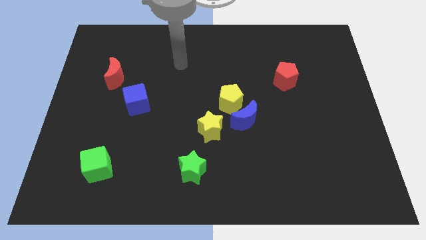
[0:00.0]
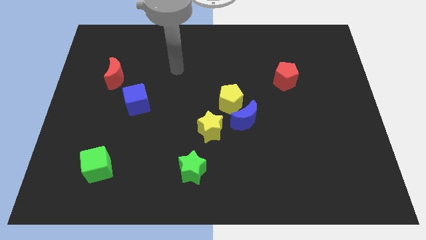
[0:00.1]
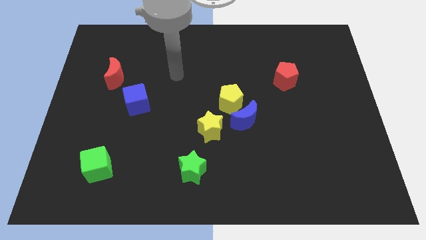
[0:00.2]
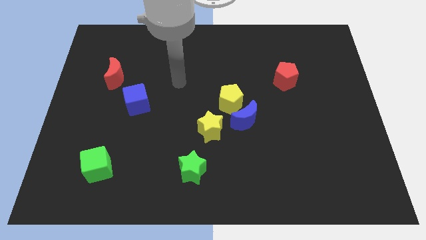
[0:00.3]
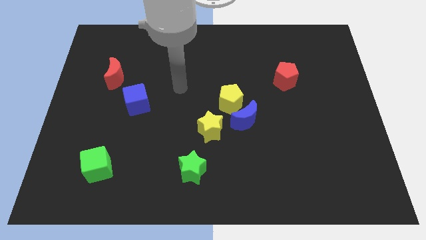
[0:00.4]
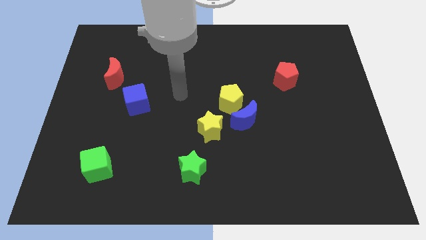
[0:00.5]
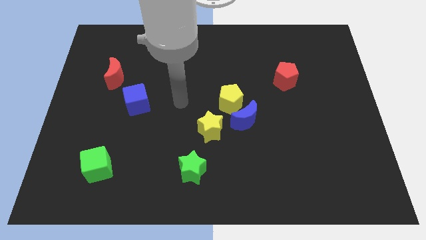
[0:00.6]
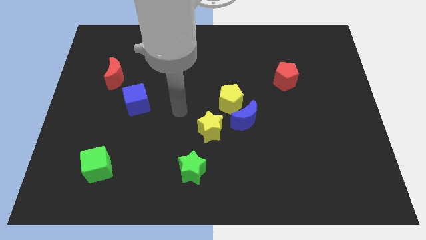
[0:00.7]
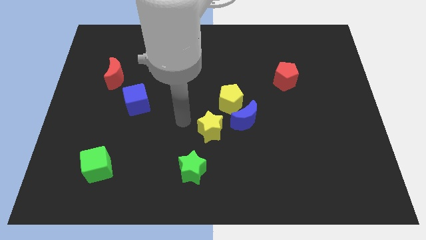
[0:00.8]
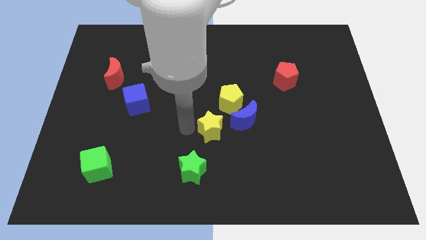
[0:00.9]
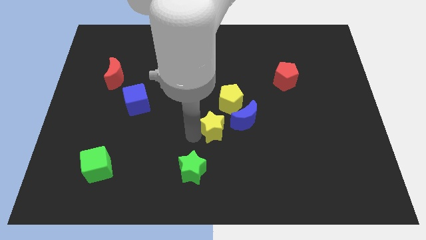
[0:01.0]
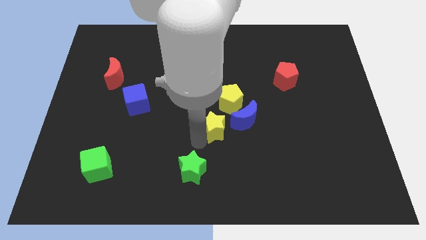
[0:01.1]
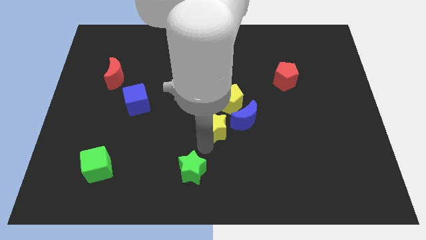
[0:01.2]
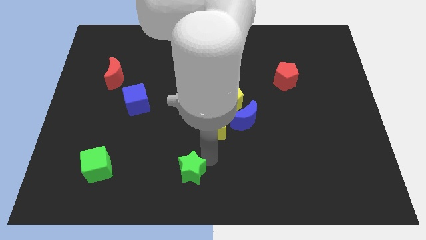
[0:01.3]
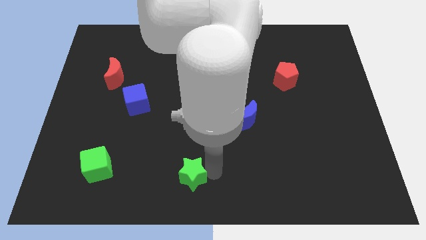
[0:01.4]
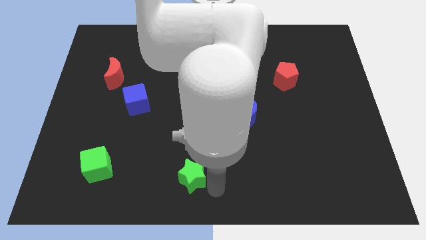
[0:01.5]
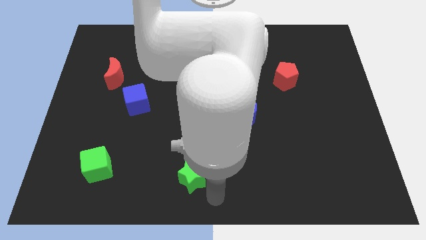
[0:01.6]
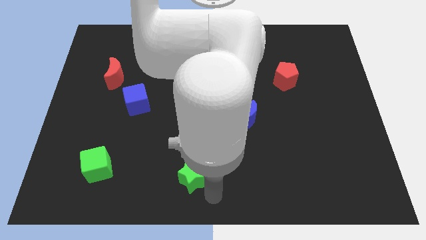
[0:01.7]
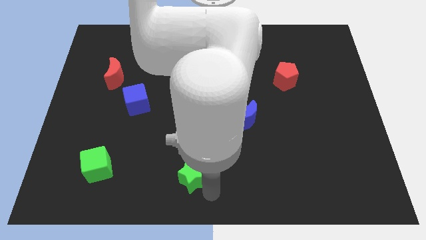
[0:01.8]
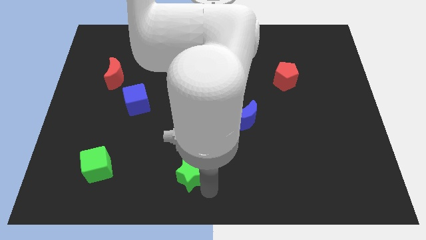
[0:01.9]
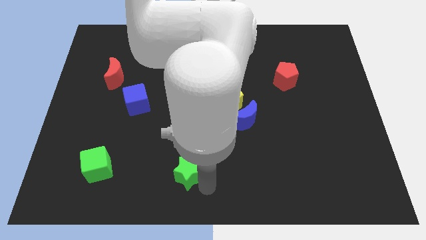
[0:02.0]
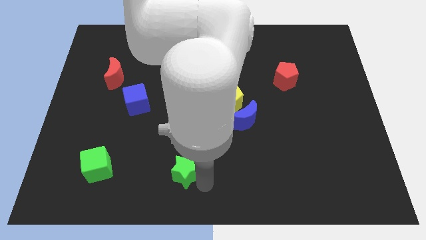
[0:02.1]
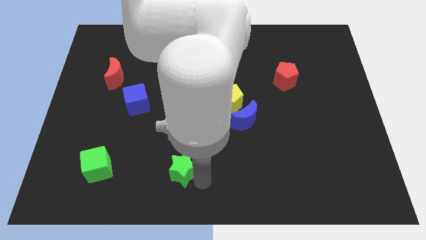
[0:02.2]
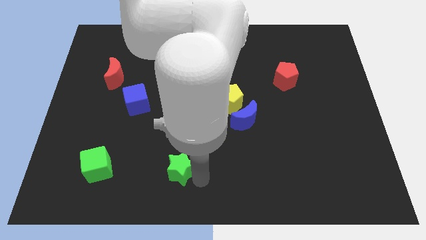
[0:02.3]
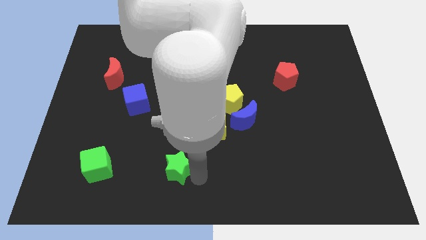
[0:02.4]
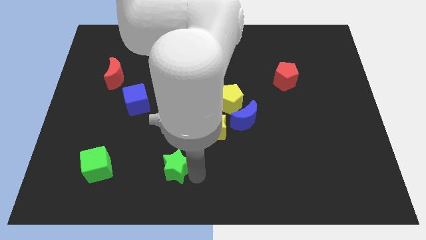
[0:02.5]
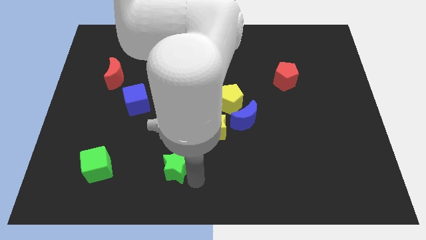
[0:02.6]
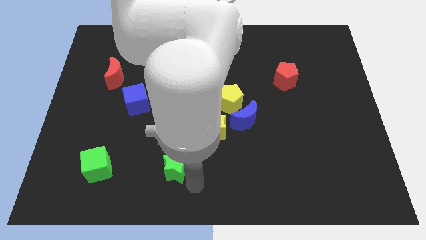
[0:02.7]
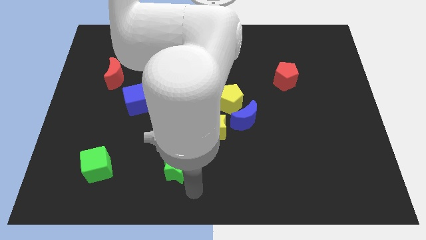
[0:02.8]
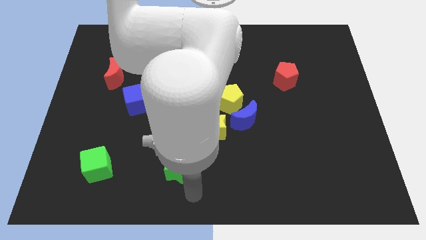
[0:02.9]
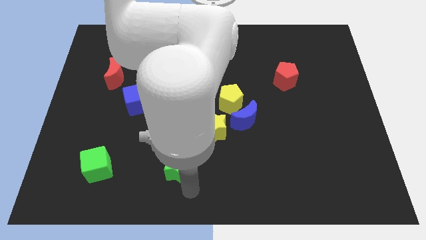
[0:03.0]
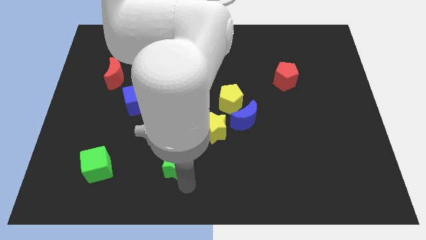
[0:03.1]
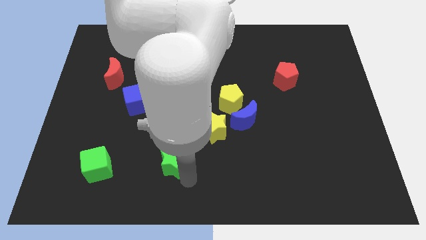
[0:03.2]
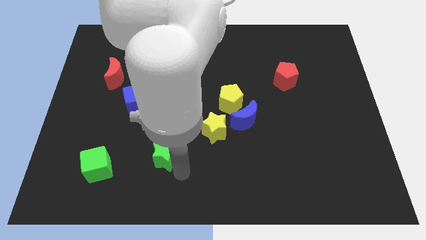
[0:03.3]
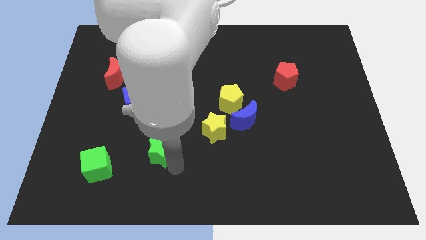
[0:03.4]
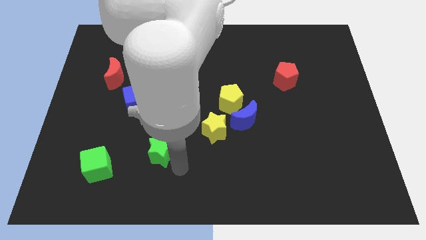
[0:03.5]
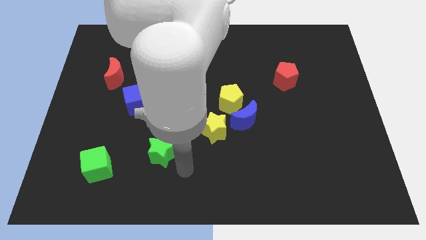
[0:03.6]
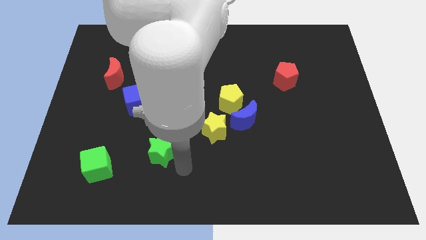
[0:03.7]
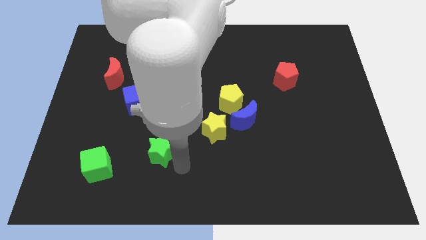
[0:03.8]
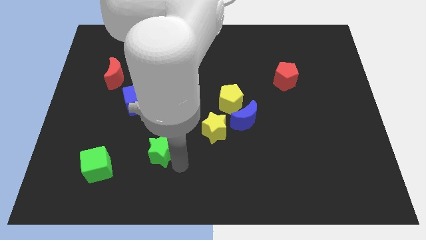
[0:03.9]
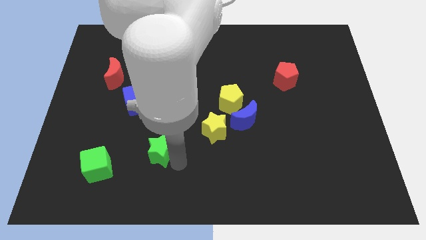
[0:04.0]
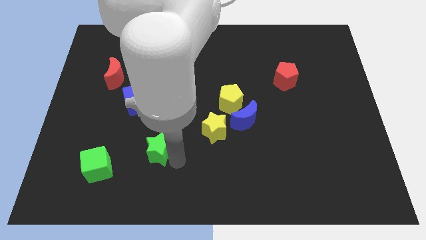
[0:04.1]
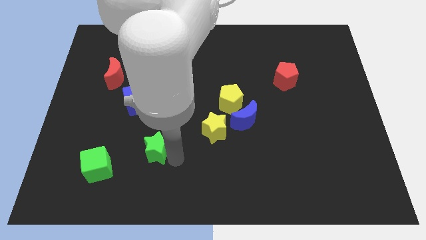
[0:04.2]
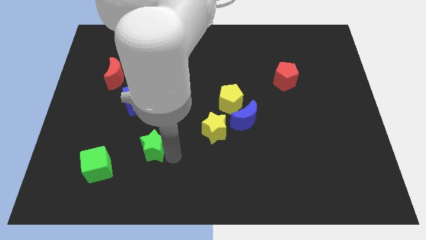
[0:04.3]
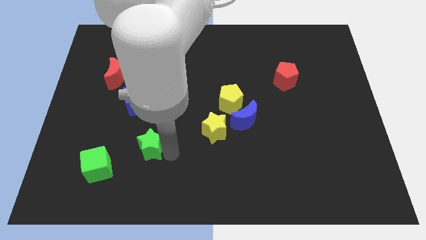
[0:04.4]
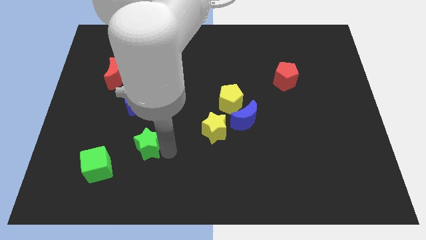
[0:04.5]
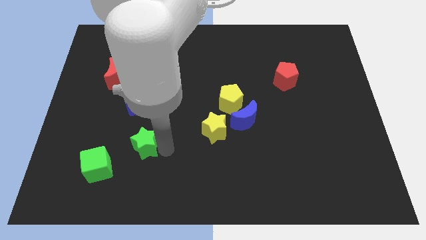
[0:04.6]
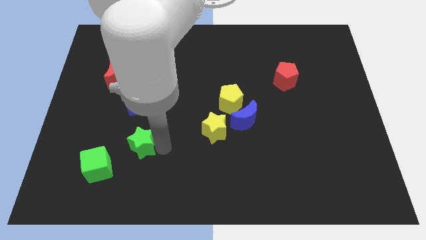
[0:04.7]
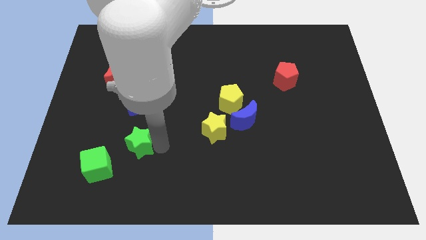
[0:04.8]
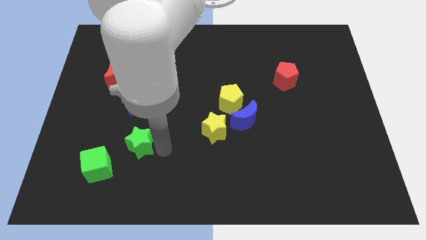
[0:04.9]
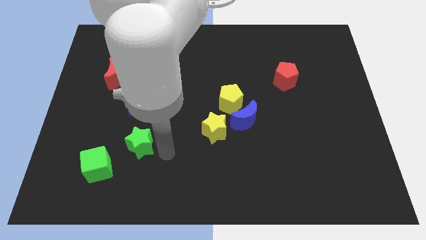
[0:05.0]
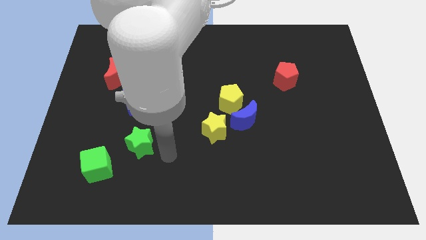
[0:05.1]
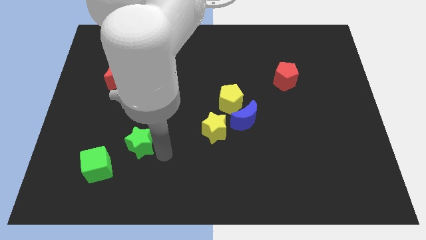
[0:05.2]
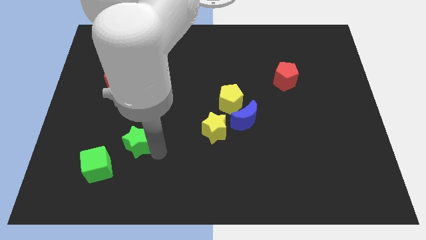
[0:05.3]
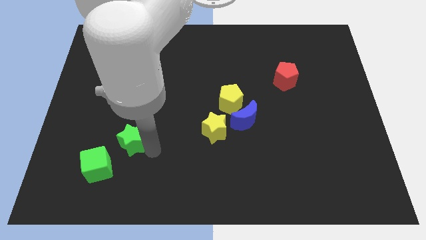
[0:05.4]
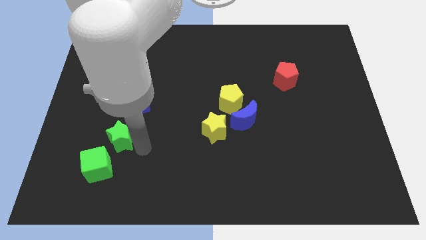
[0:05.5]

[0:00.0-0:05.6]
slide the green star above the green cube

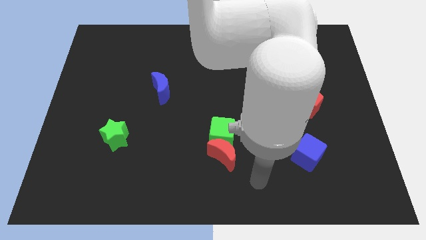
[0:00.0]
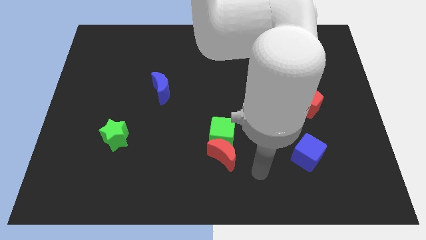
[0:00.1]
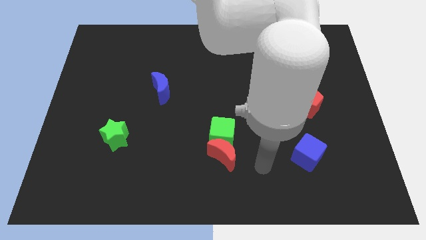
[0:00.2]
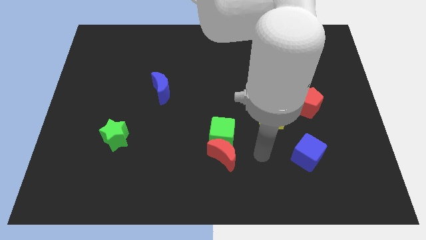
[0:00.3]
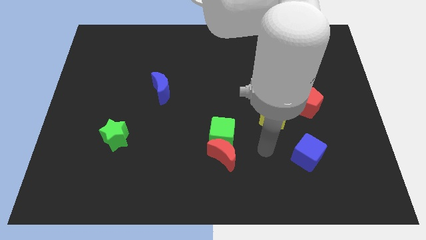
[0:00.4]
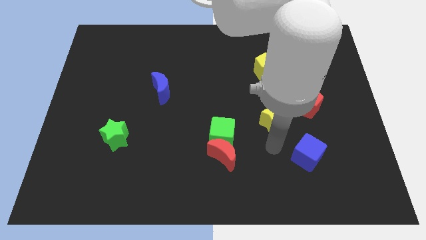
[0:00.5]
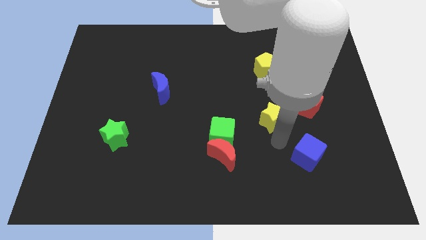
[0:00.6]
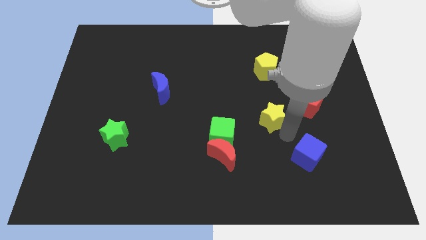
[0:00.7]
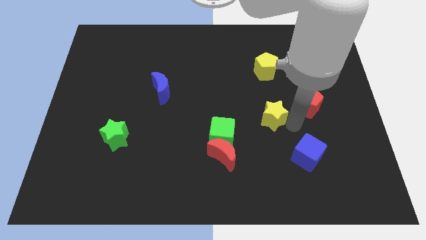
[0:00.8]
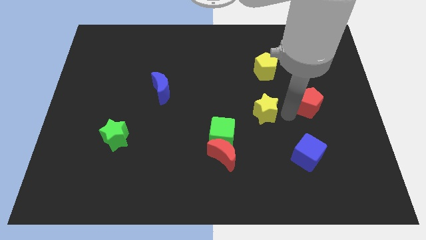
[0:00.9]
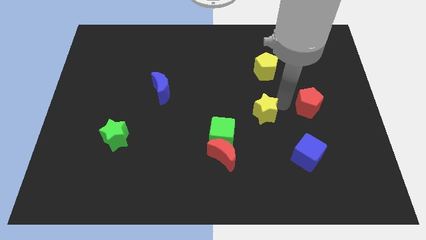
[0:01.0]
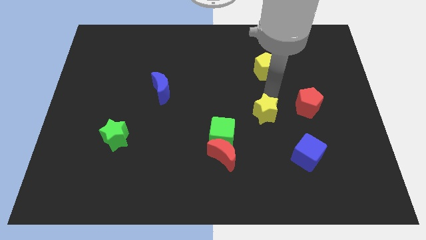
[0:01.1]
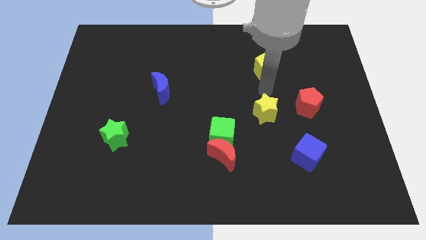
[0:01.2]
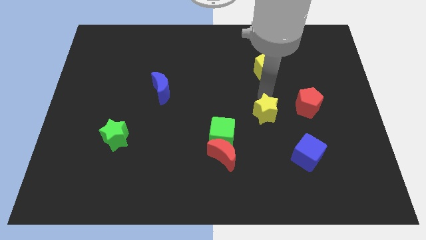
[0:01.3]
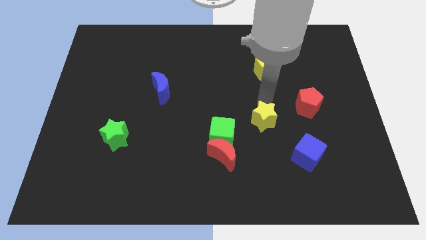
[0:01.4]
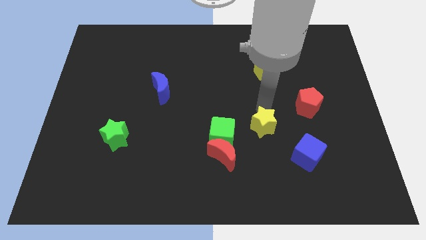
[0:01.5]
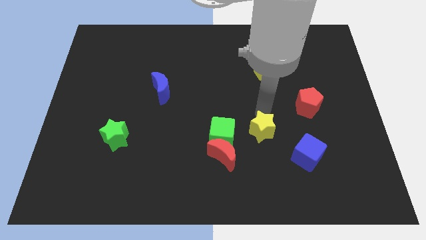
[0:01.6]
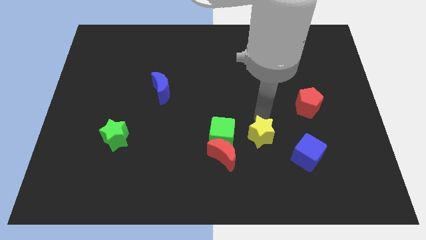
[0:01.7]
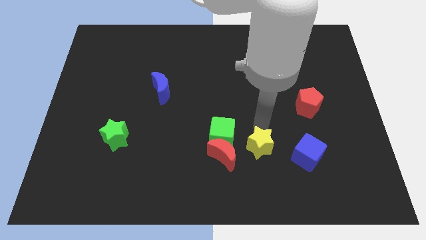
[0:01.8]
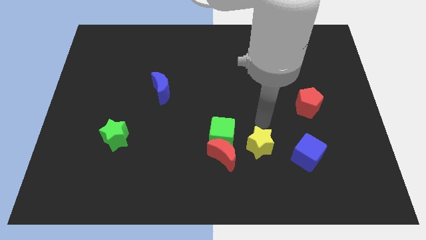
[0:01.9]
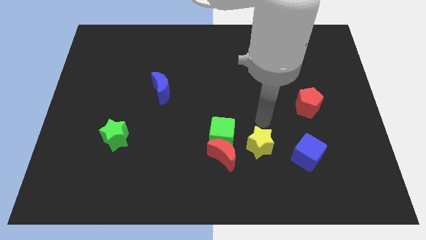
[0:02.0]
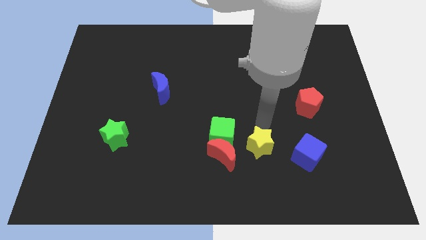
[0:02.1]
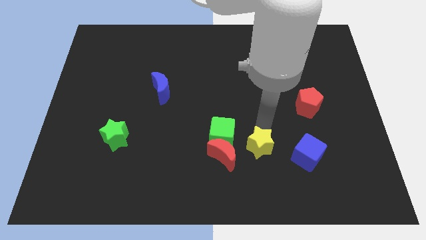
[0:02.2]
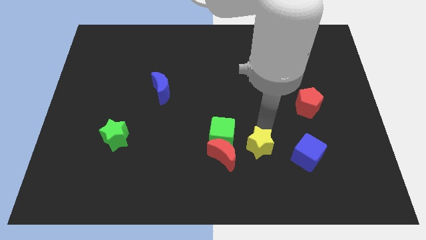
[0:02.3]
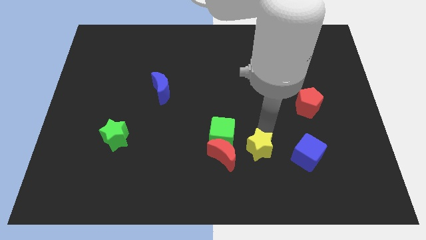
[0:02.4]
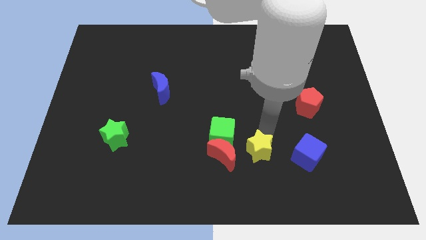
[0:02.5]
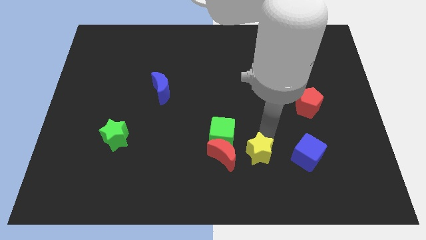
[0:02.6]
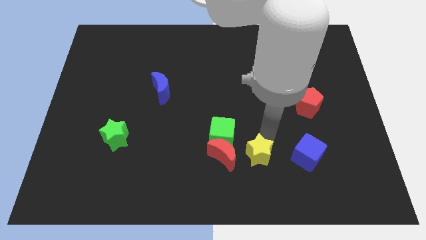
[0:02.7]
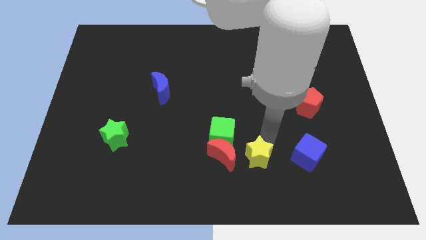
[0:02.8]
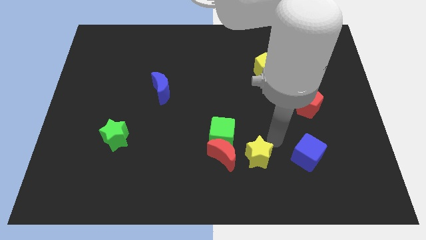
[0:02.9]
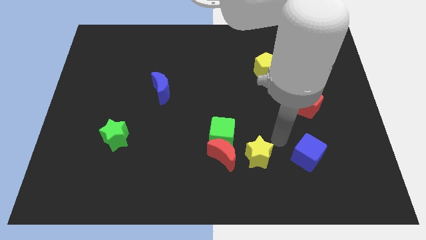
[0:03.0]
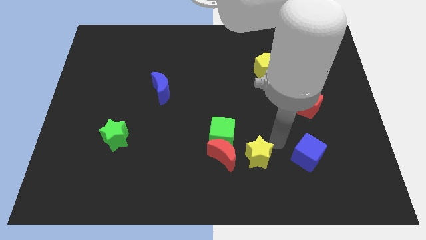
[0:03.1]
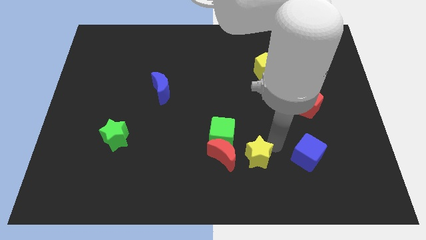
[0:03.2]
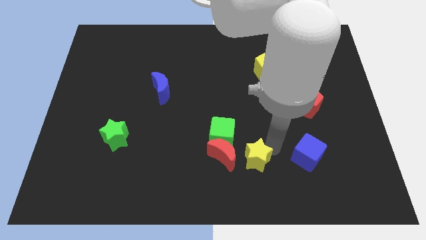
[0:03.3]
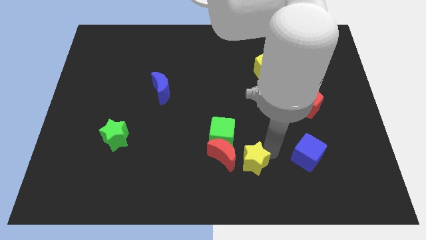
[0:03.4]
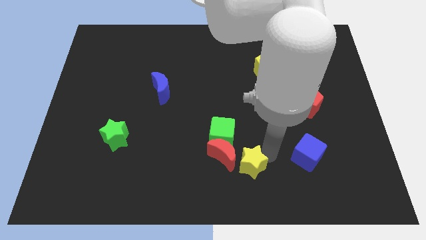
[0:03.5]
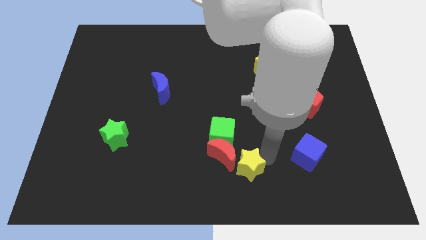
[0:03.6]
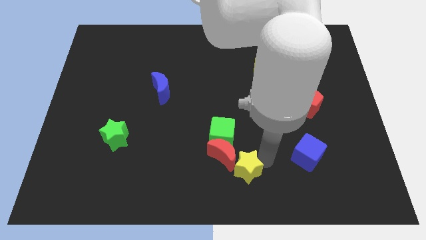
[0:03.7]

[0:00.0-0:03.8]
slide the yellow star to the bottom side of the green cube
